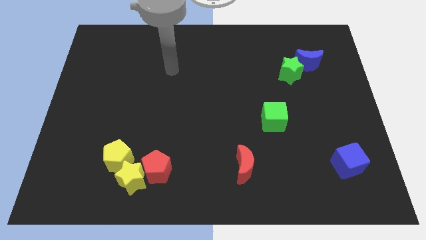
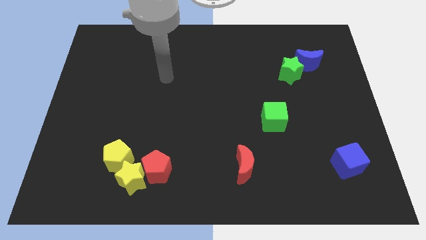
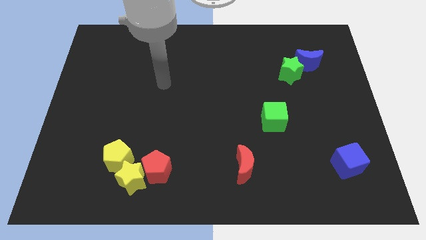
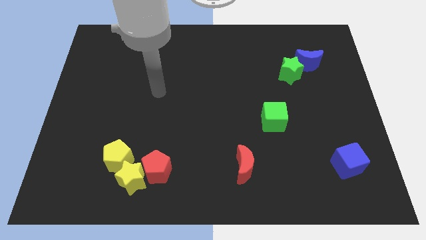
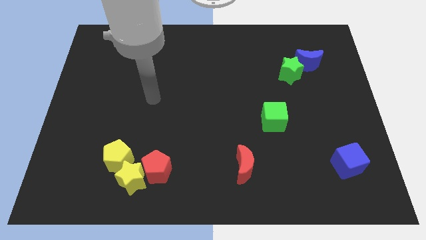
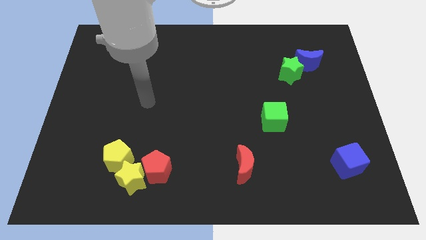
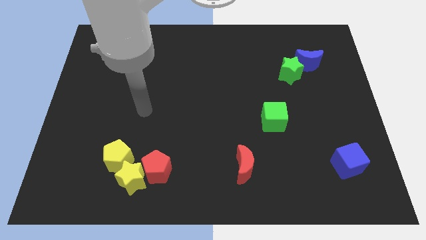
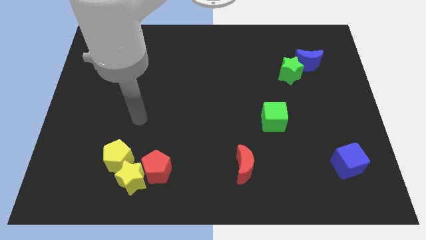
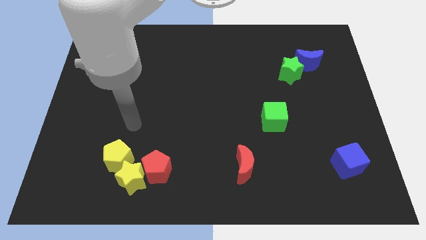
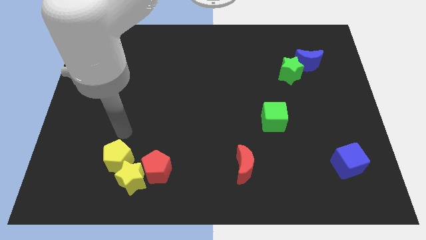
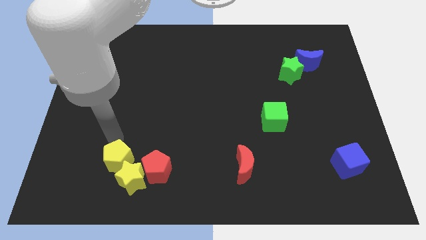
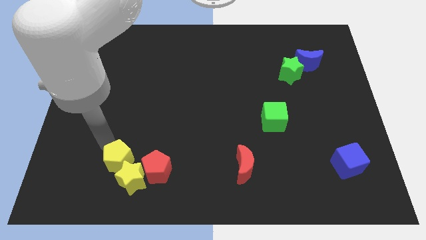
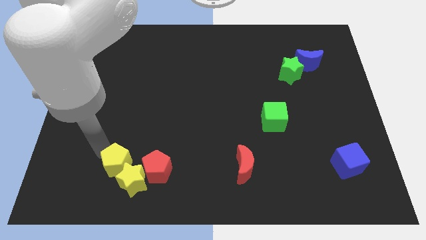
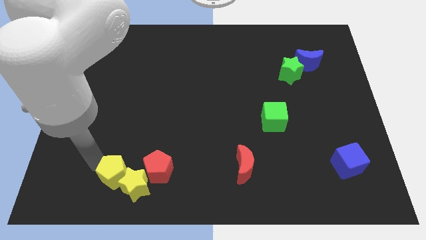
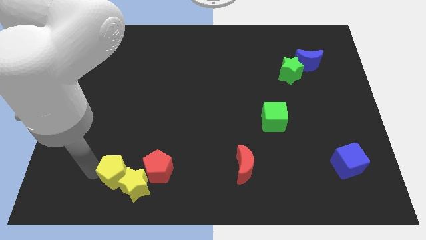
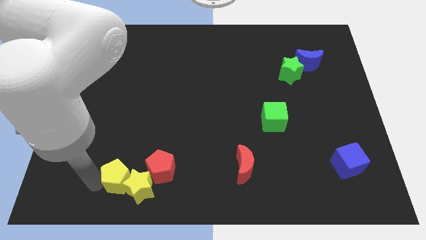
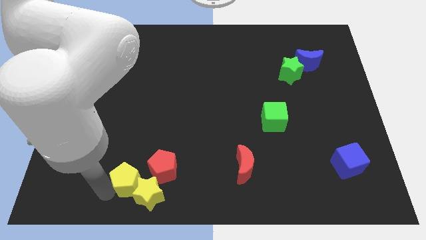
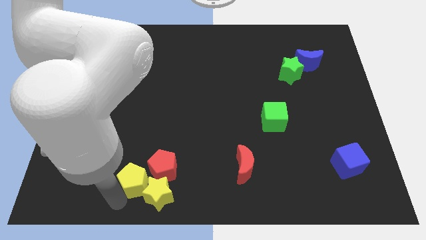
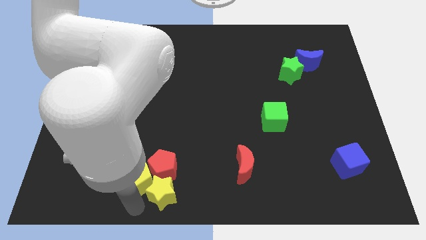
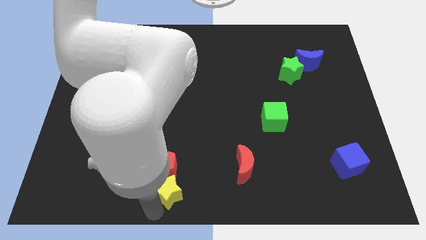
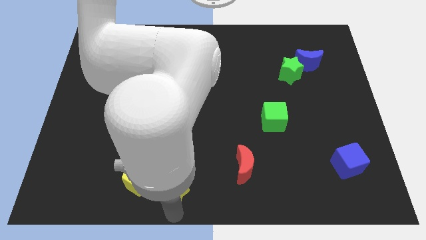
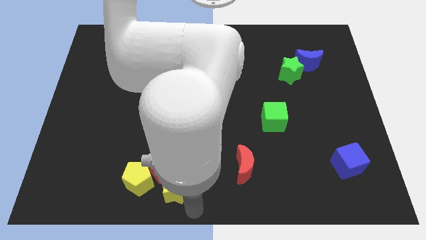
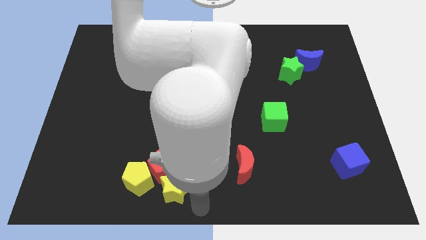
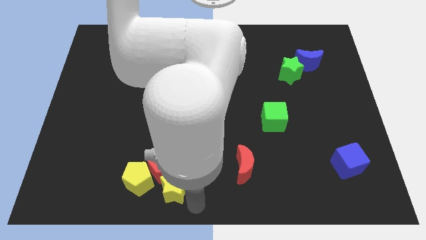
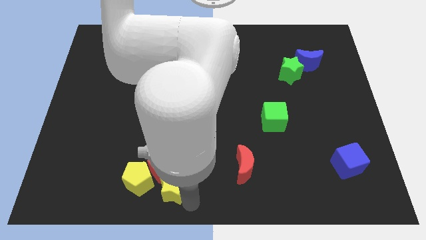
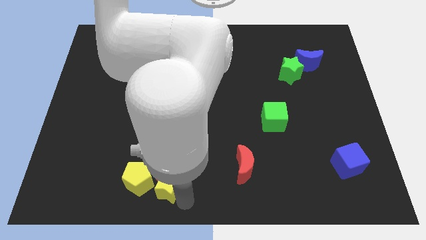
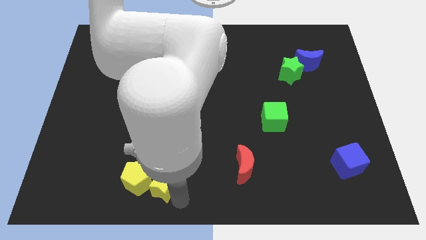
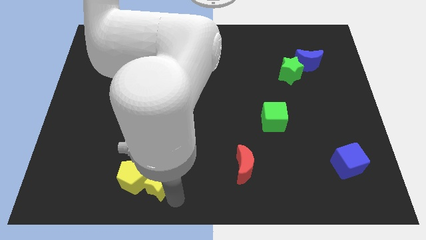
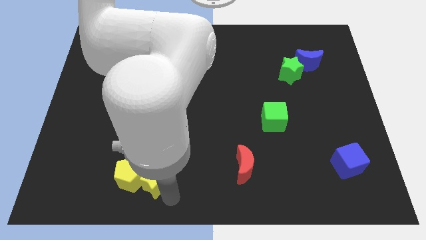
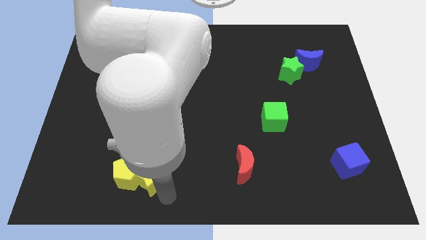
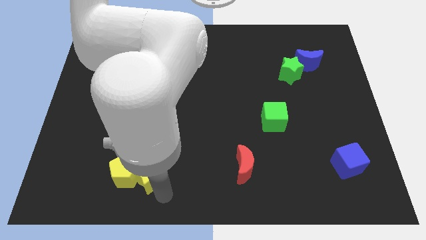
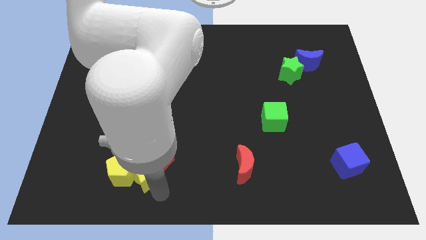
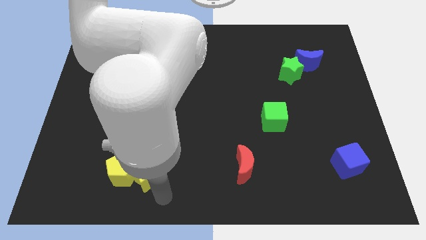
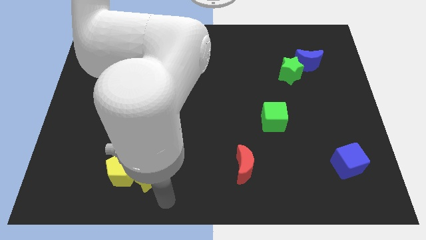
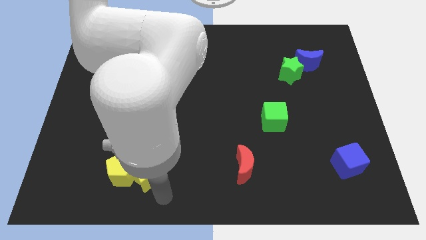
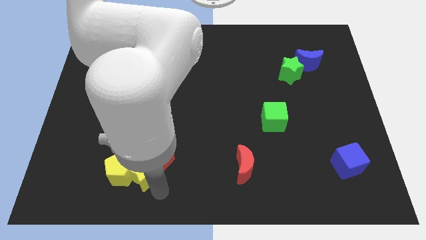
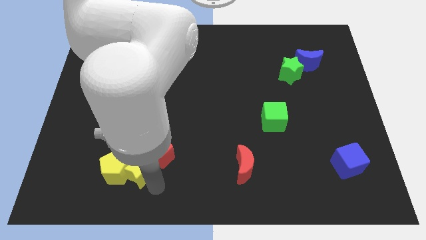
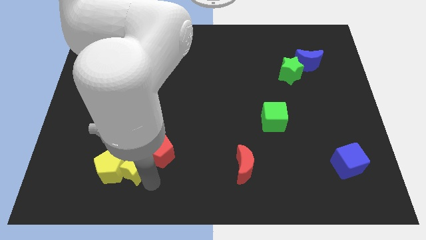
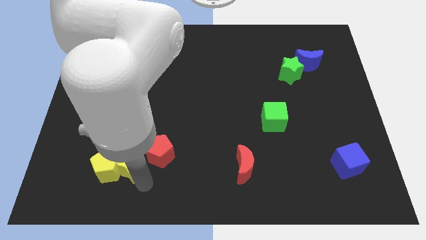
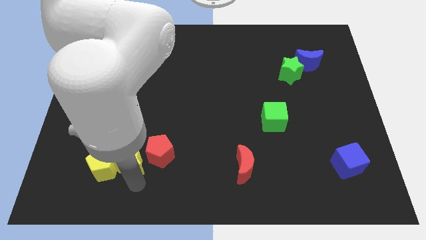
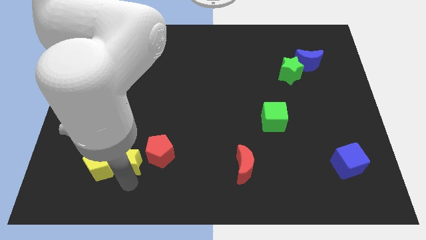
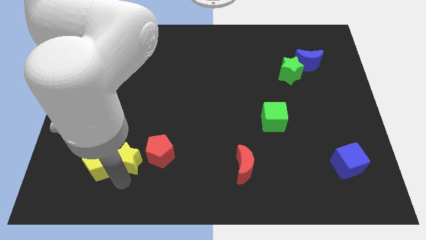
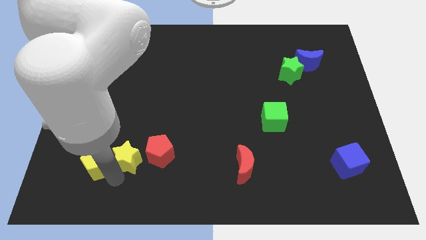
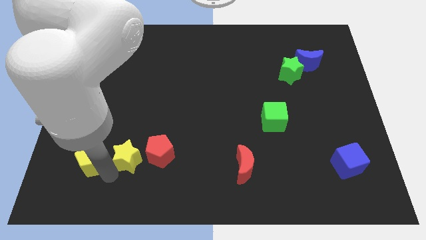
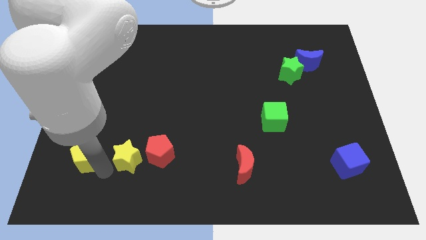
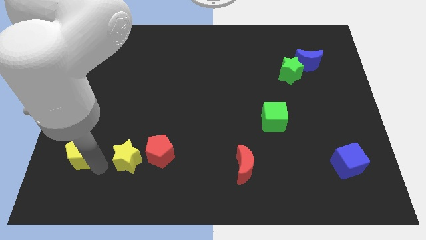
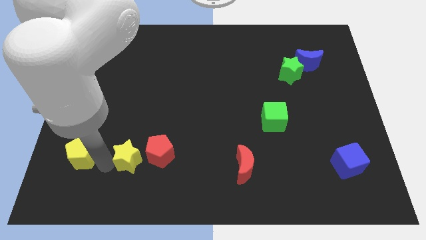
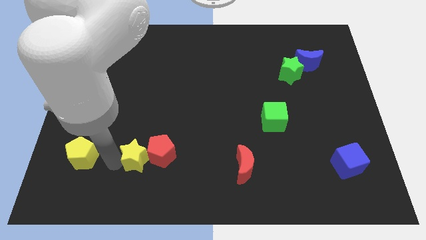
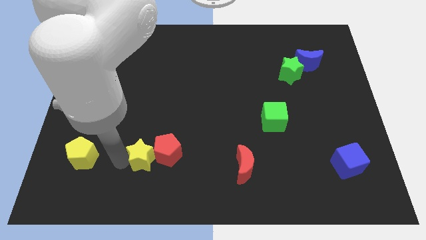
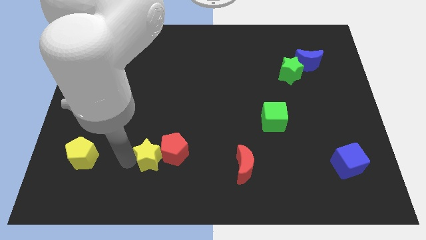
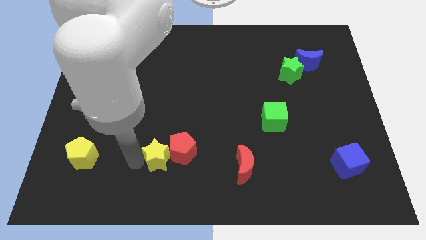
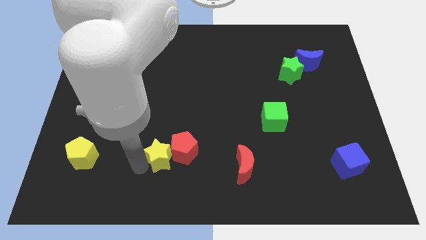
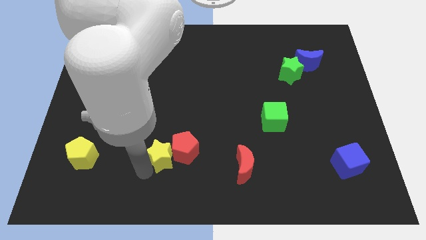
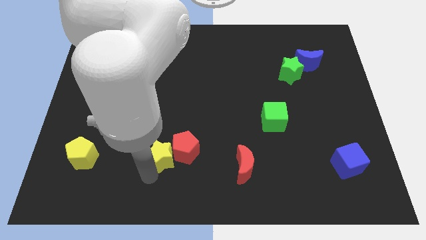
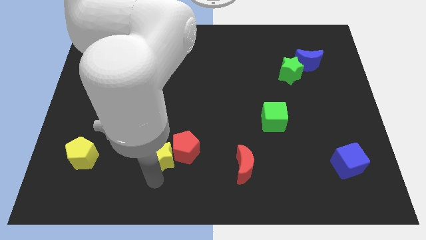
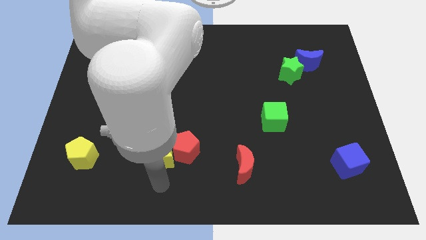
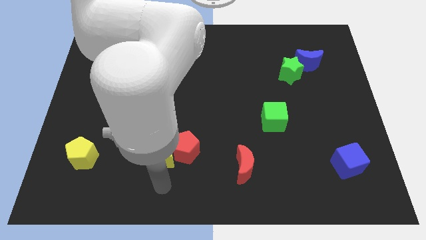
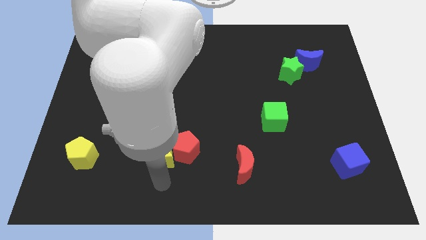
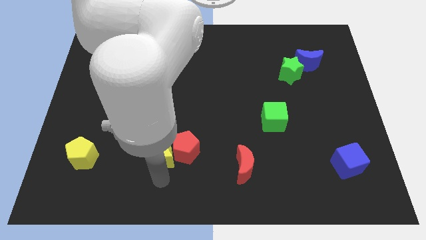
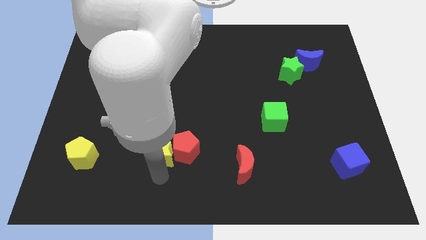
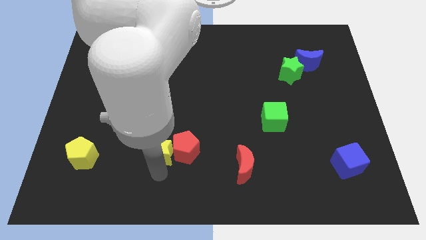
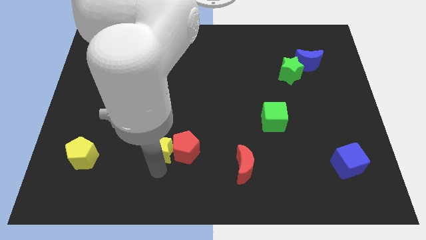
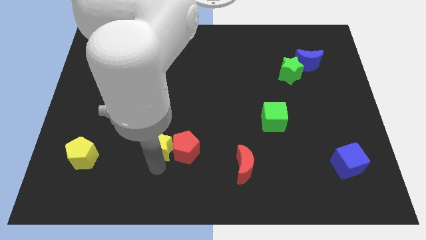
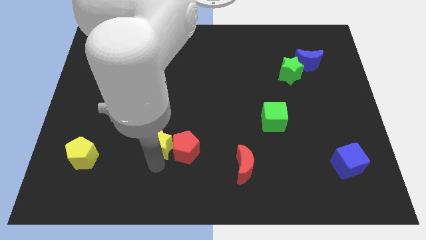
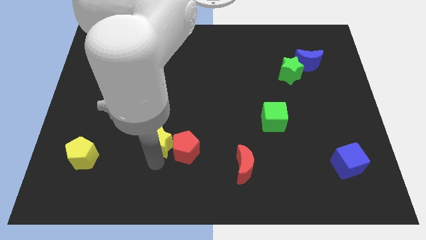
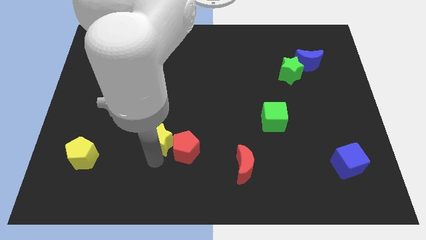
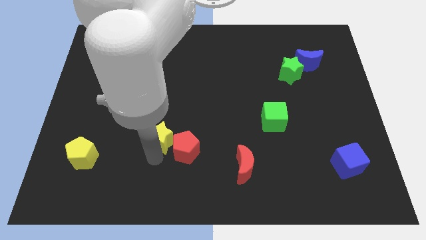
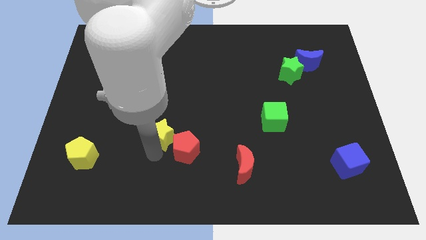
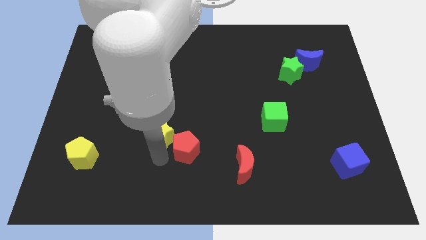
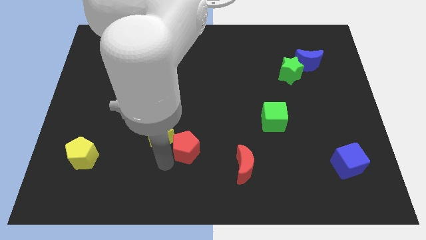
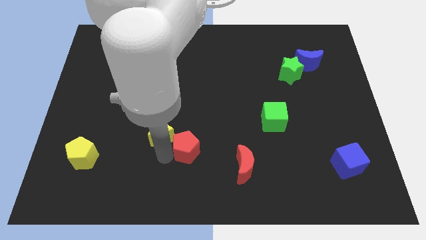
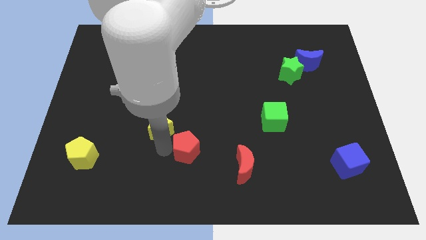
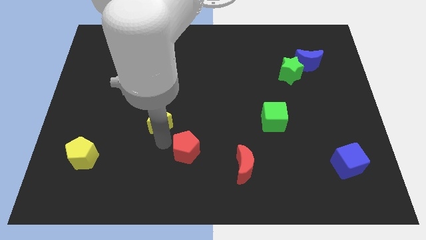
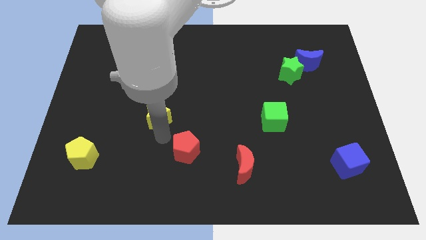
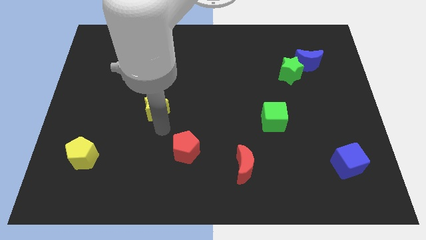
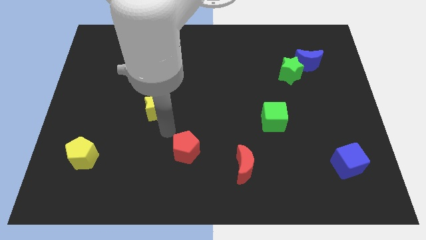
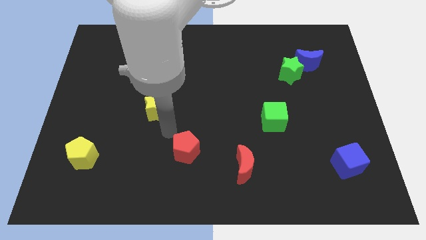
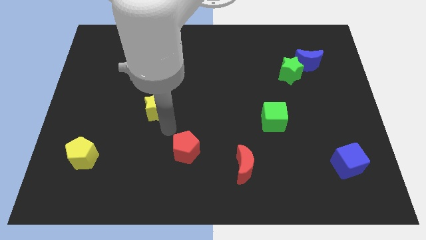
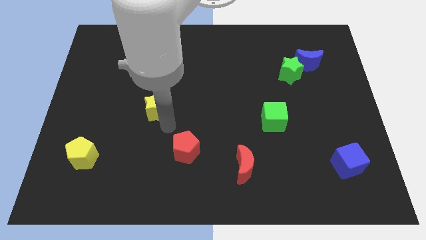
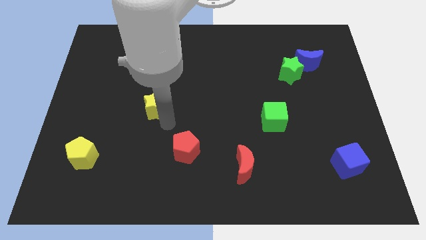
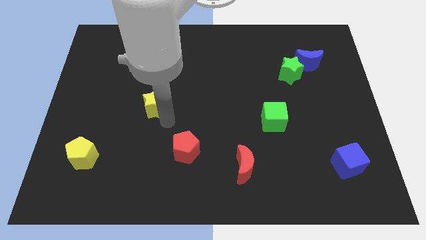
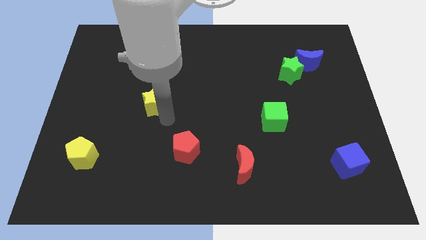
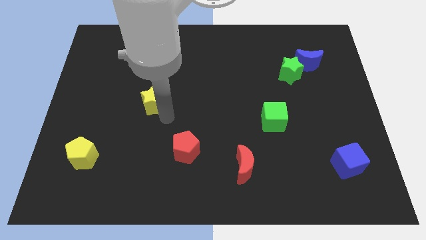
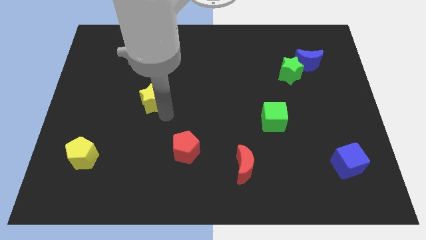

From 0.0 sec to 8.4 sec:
slide the yellow star upwards
